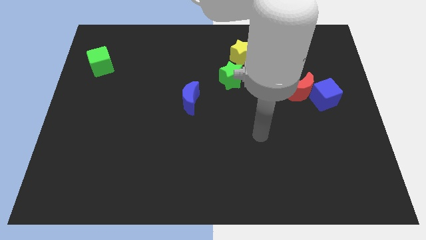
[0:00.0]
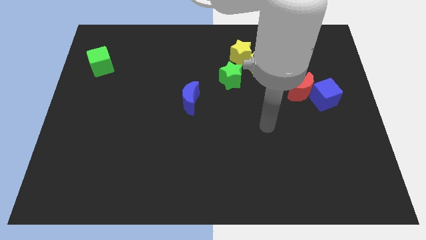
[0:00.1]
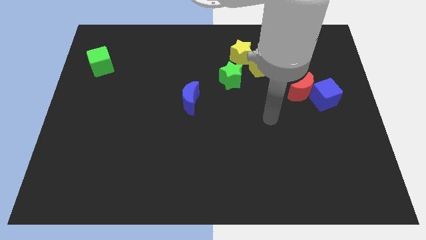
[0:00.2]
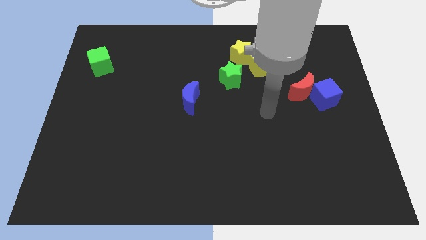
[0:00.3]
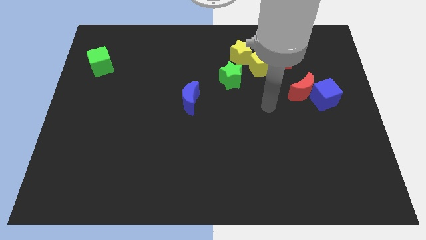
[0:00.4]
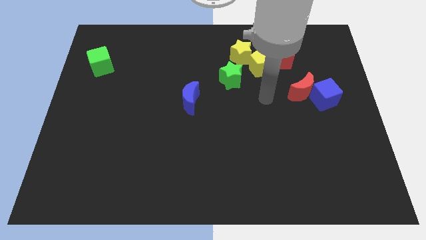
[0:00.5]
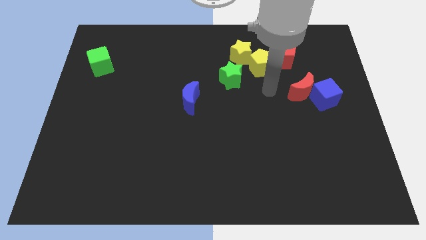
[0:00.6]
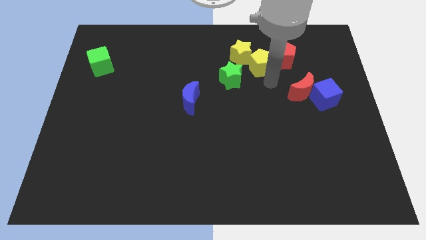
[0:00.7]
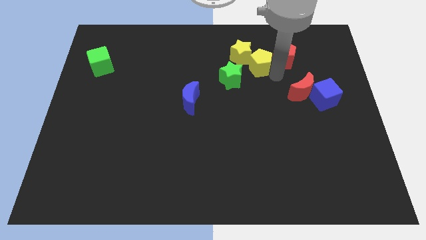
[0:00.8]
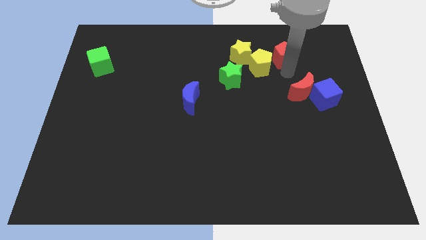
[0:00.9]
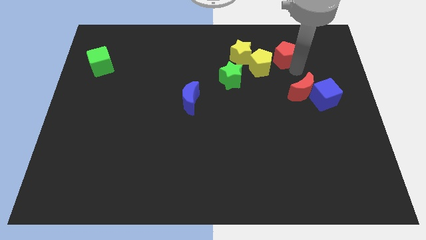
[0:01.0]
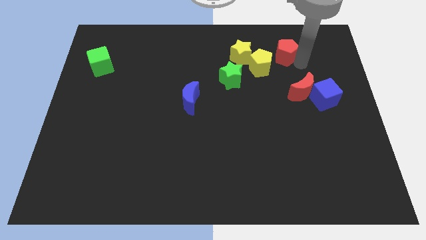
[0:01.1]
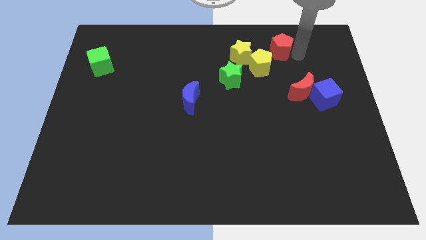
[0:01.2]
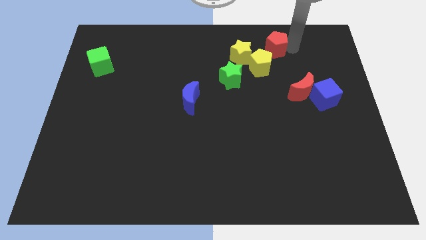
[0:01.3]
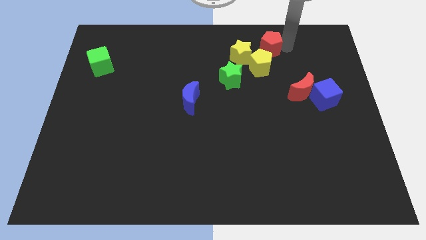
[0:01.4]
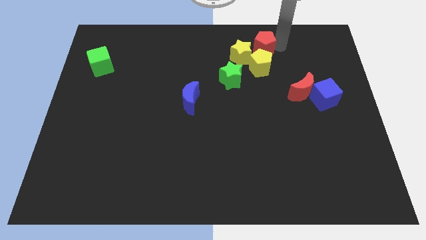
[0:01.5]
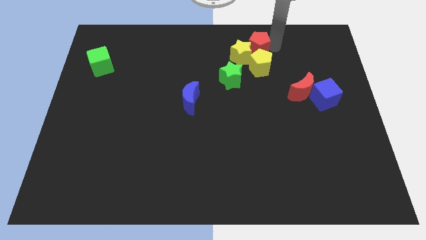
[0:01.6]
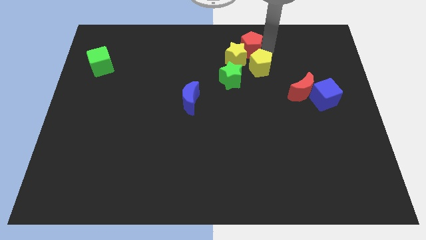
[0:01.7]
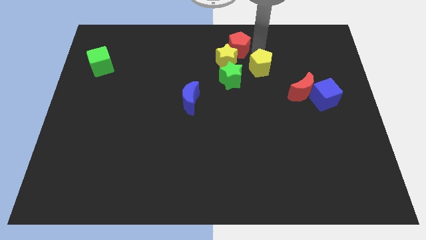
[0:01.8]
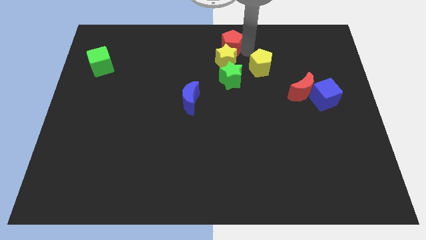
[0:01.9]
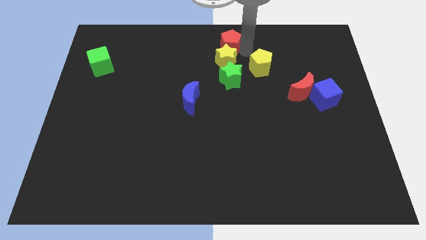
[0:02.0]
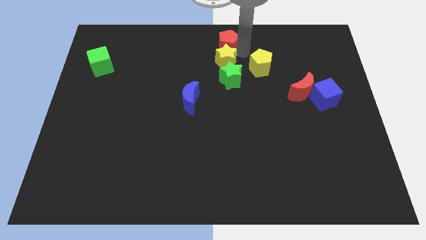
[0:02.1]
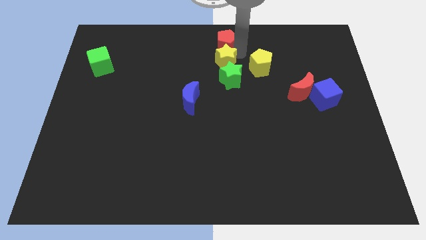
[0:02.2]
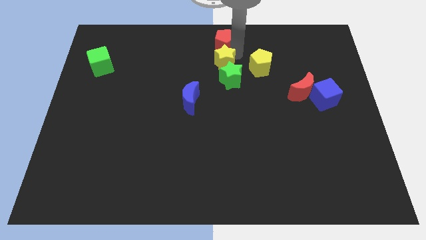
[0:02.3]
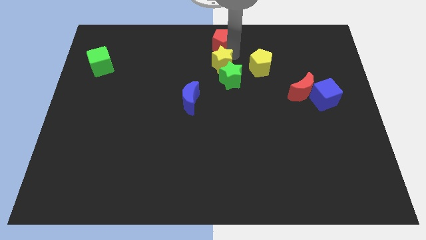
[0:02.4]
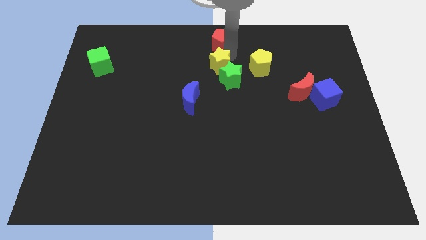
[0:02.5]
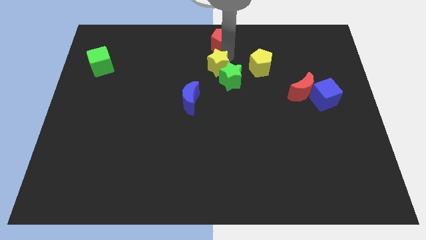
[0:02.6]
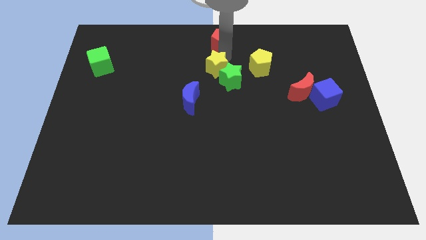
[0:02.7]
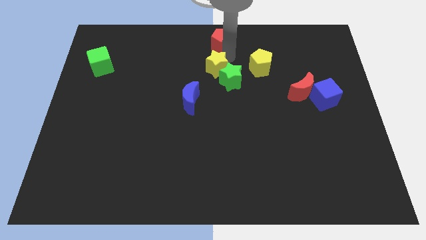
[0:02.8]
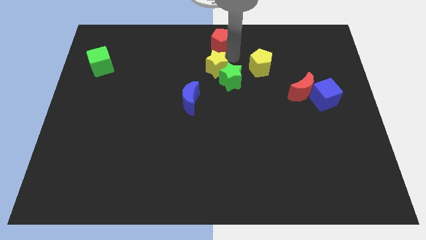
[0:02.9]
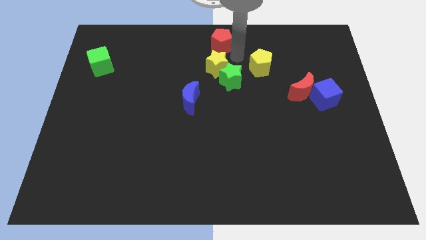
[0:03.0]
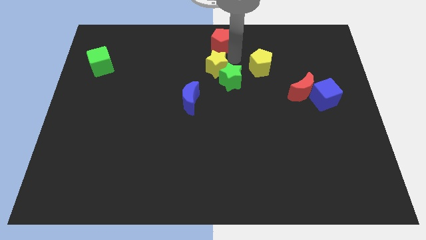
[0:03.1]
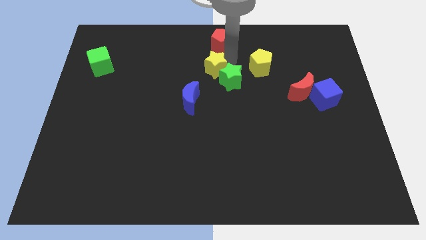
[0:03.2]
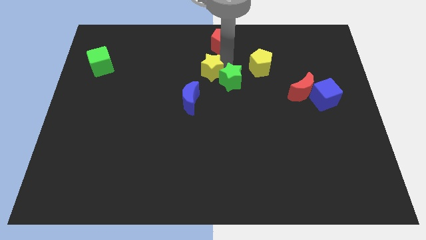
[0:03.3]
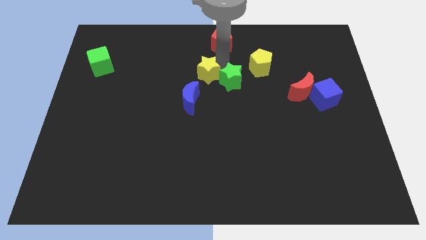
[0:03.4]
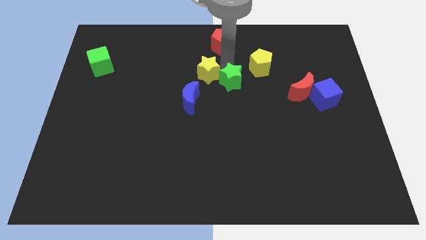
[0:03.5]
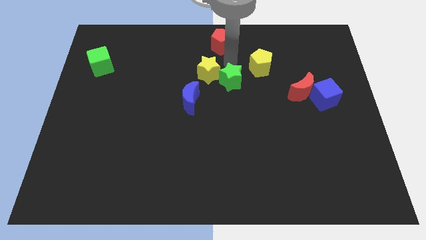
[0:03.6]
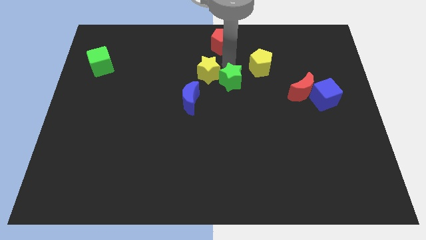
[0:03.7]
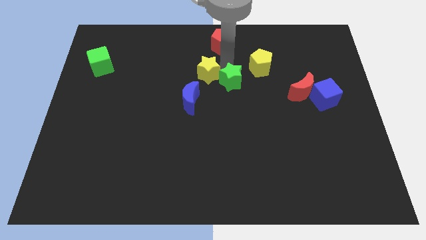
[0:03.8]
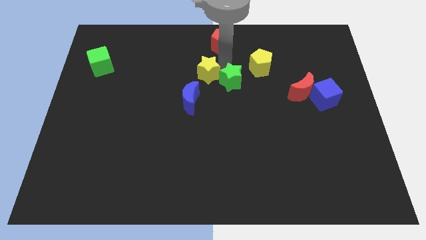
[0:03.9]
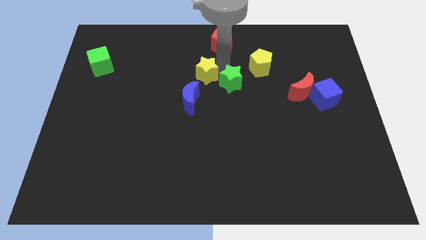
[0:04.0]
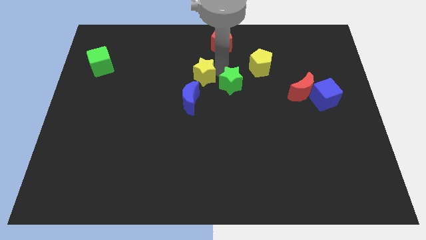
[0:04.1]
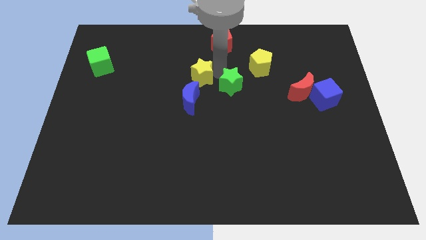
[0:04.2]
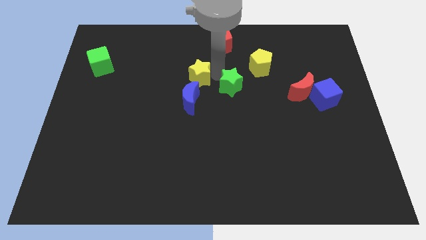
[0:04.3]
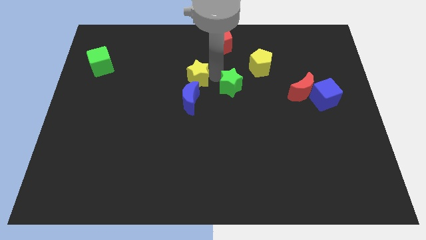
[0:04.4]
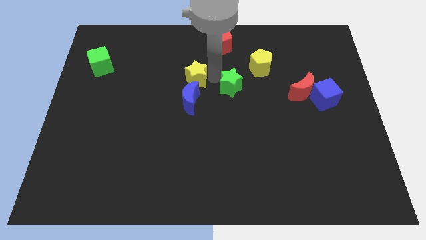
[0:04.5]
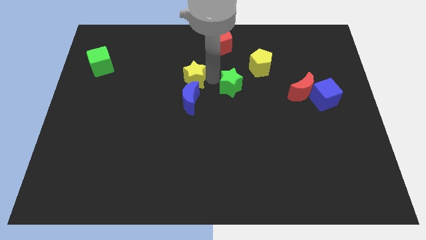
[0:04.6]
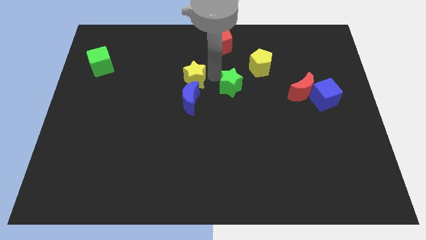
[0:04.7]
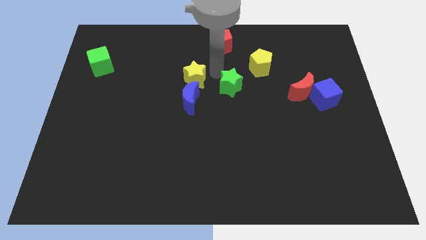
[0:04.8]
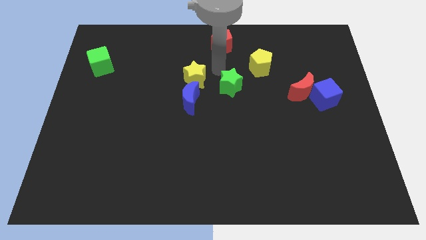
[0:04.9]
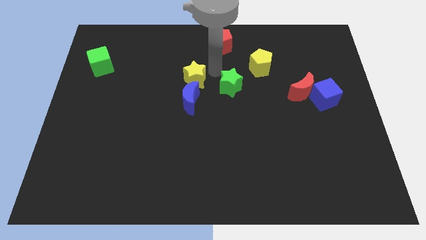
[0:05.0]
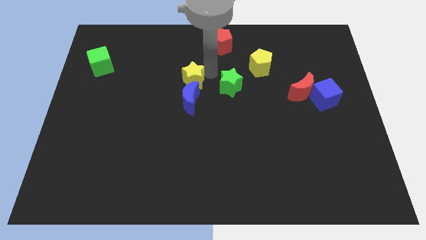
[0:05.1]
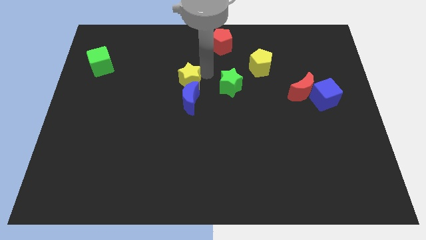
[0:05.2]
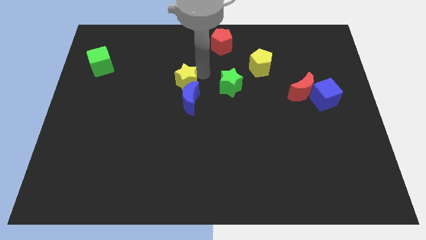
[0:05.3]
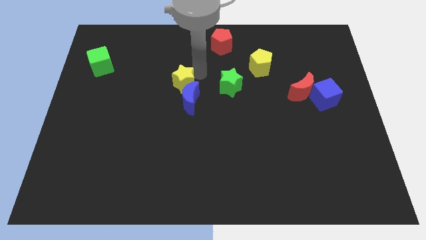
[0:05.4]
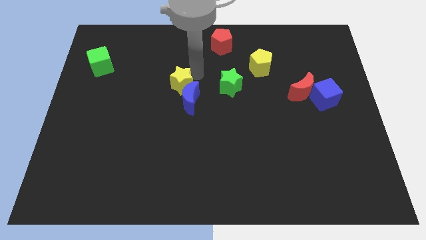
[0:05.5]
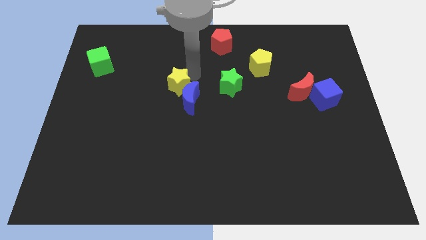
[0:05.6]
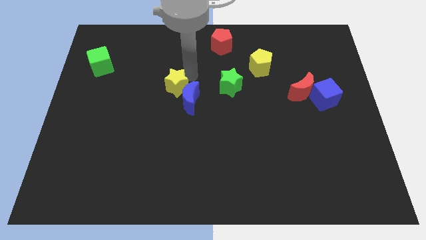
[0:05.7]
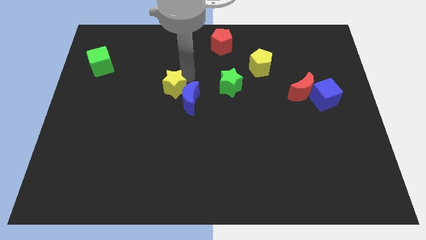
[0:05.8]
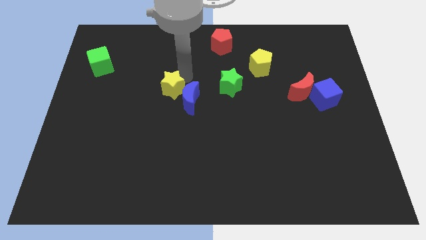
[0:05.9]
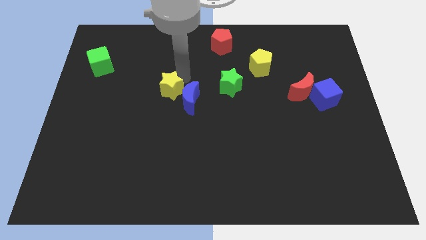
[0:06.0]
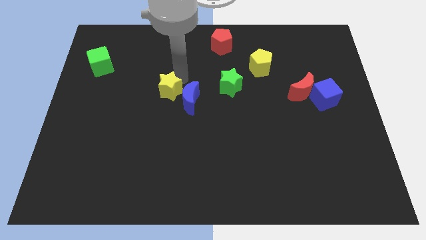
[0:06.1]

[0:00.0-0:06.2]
move the yellow star downwards and to the left

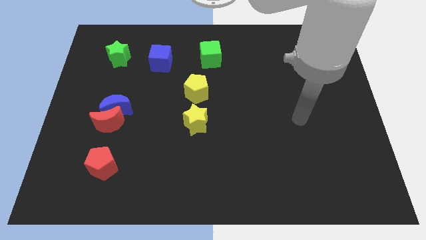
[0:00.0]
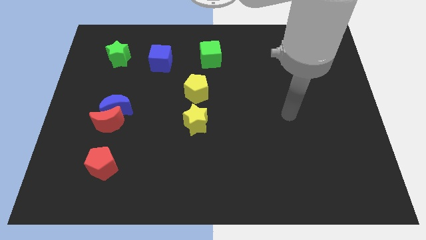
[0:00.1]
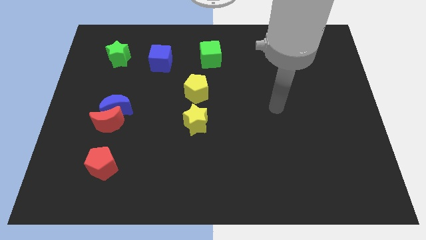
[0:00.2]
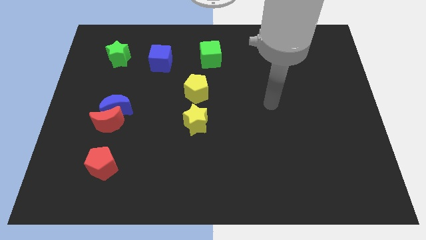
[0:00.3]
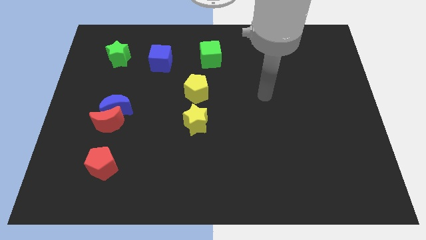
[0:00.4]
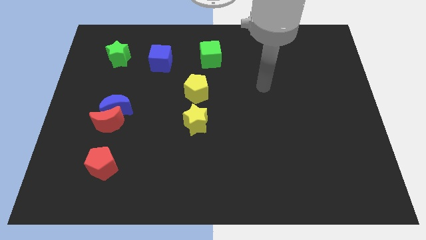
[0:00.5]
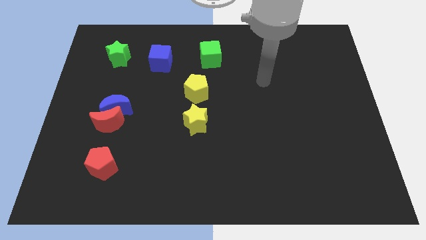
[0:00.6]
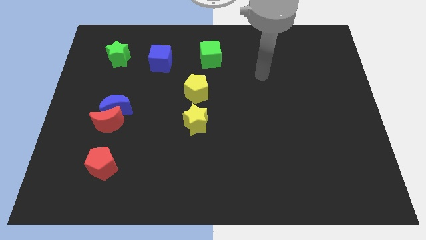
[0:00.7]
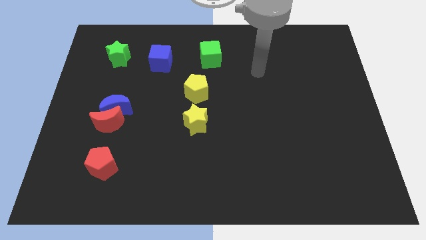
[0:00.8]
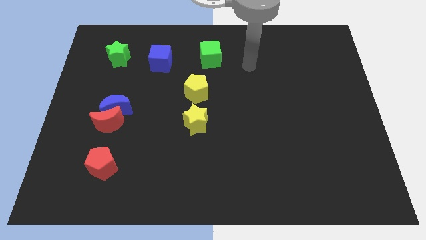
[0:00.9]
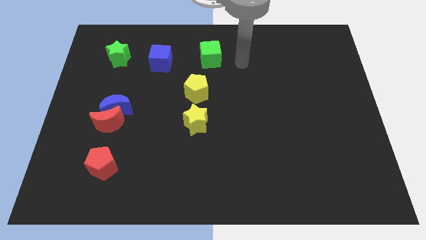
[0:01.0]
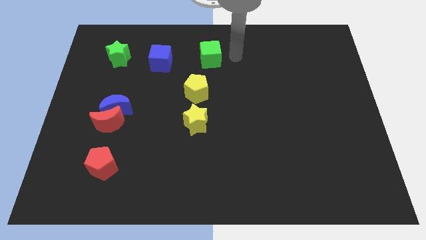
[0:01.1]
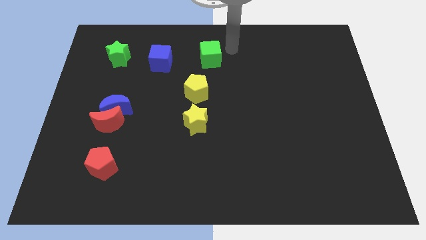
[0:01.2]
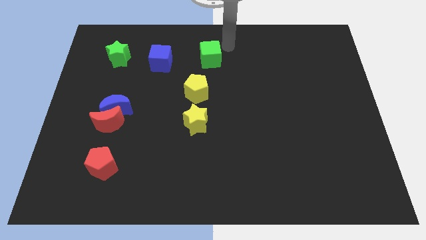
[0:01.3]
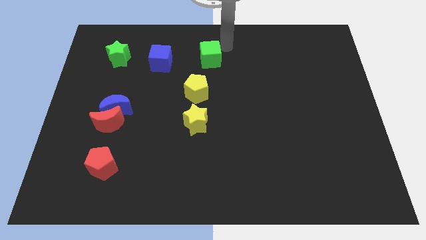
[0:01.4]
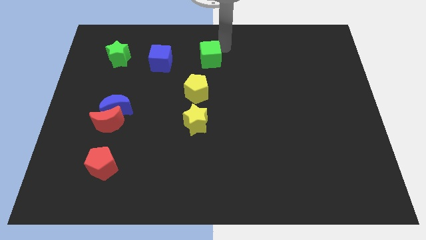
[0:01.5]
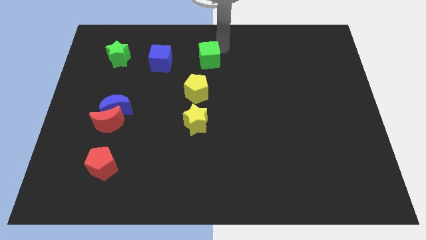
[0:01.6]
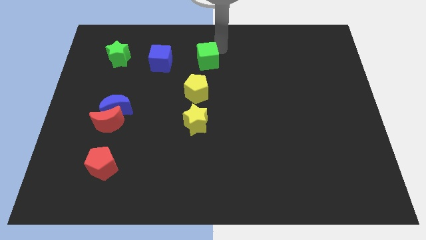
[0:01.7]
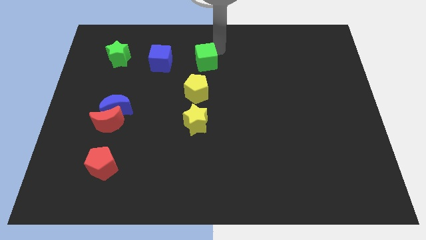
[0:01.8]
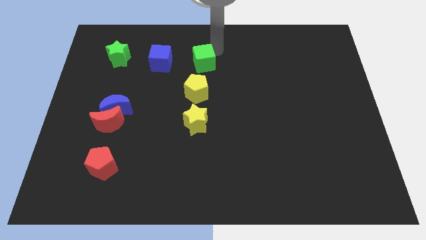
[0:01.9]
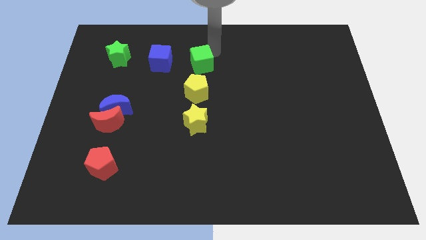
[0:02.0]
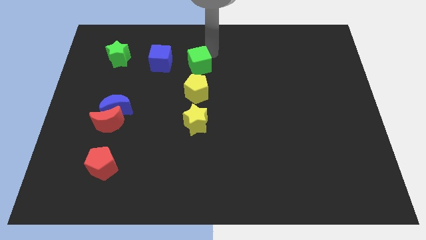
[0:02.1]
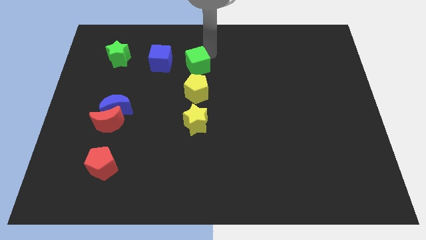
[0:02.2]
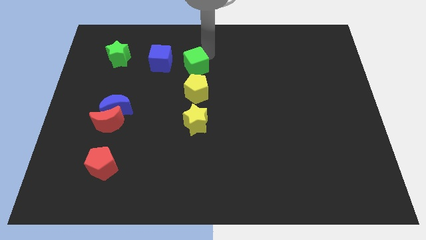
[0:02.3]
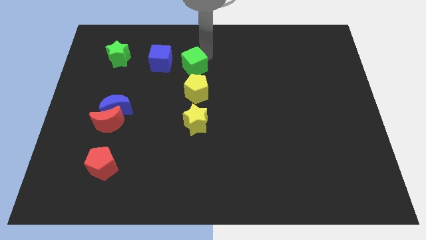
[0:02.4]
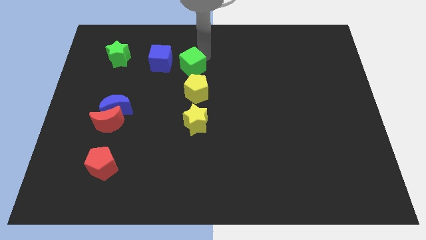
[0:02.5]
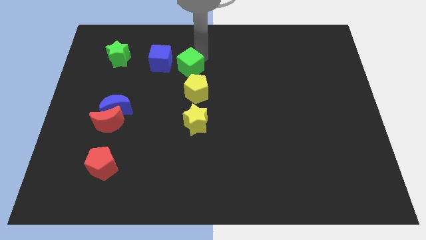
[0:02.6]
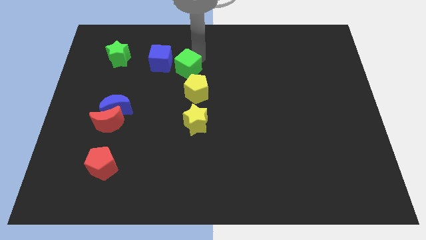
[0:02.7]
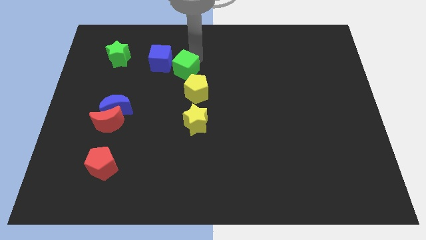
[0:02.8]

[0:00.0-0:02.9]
move the green cube down and left diagonally somewhat
